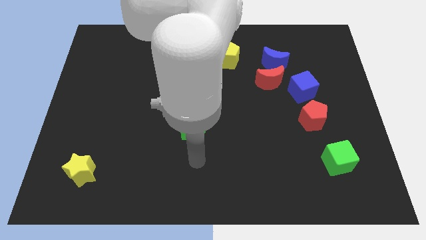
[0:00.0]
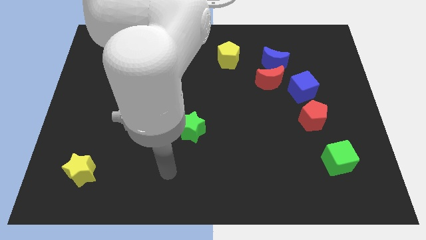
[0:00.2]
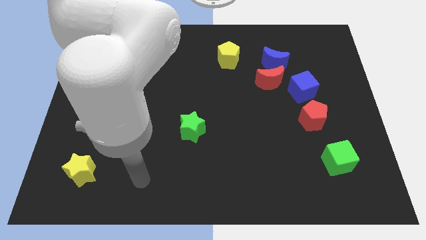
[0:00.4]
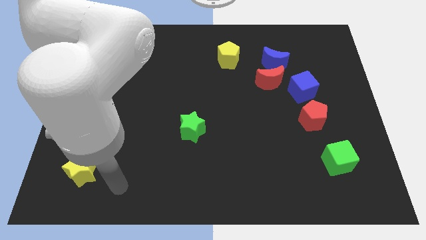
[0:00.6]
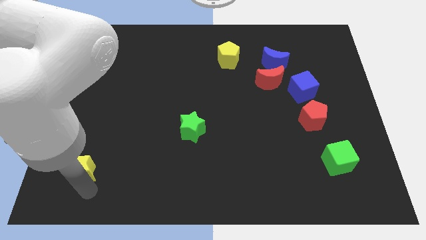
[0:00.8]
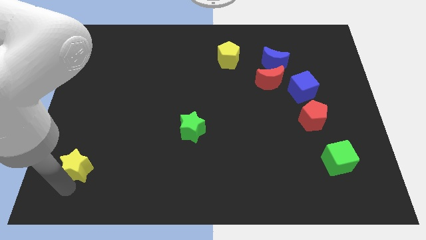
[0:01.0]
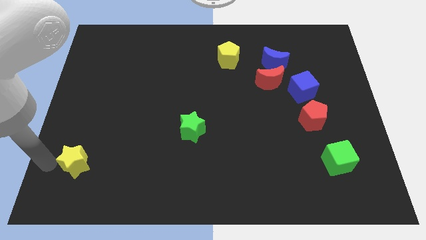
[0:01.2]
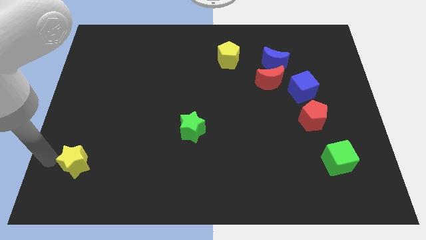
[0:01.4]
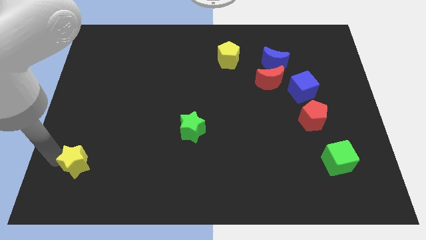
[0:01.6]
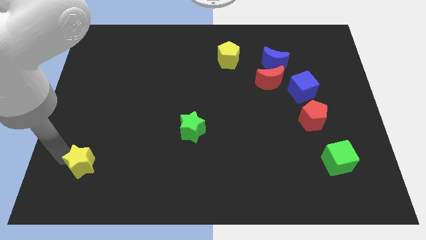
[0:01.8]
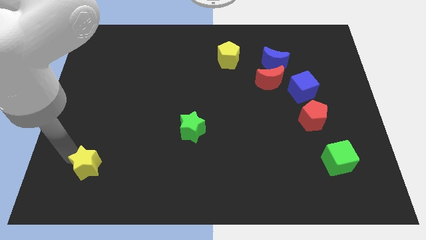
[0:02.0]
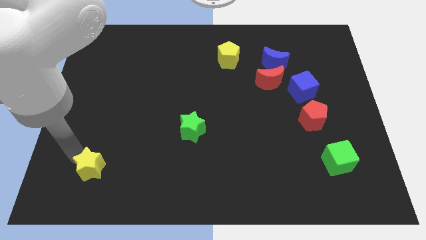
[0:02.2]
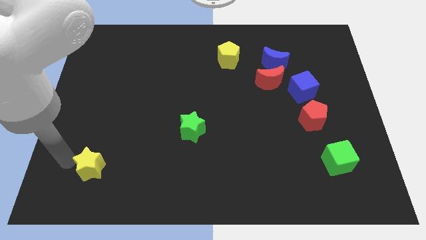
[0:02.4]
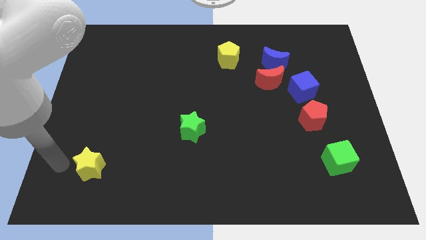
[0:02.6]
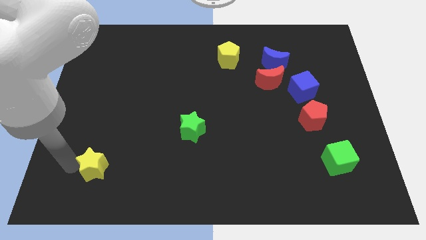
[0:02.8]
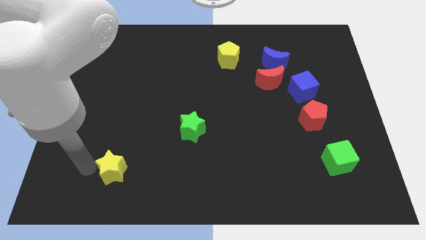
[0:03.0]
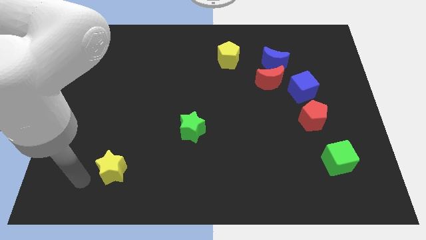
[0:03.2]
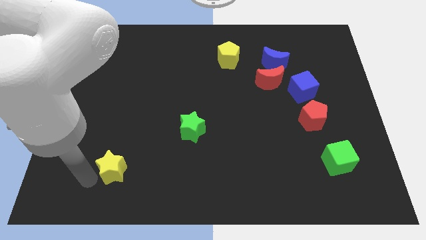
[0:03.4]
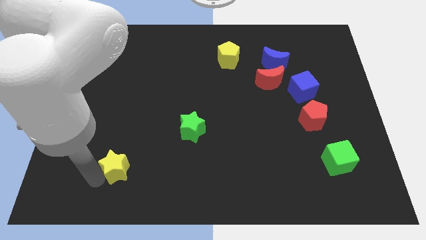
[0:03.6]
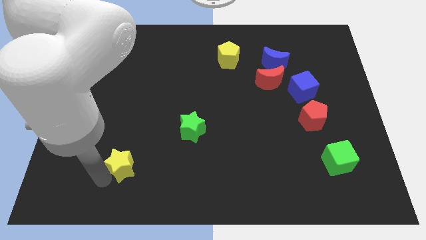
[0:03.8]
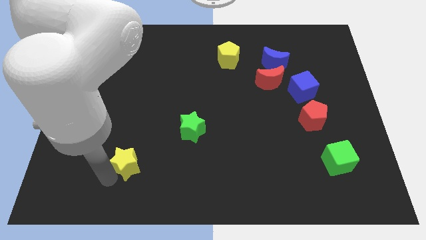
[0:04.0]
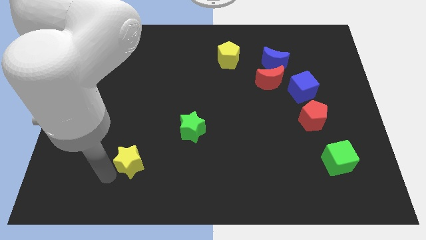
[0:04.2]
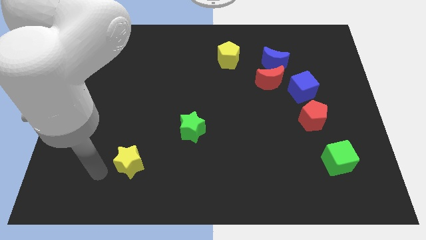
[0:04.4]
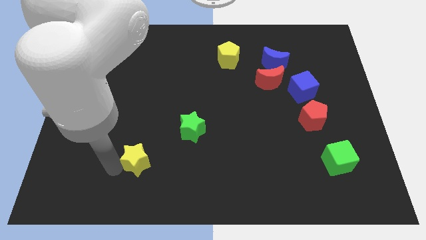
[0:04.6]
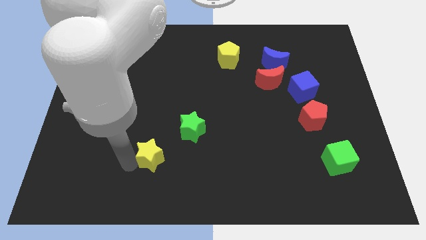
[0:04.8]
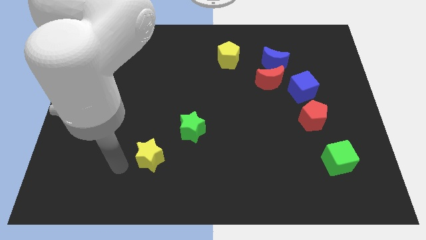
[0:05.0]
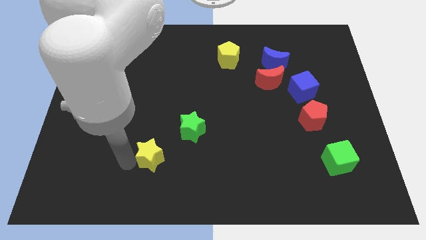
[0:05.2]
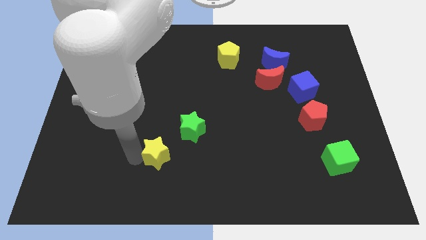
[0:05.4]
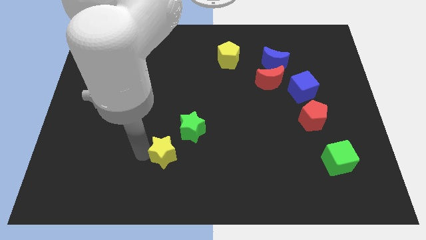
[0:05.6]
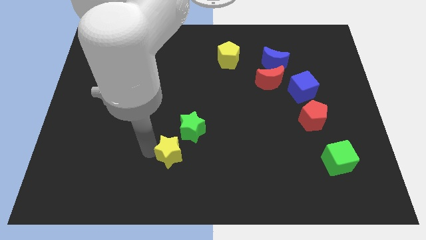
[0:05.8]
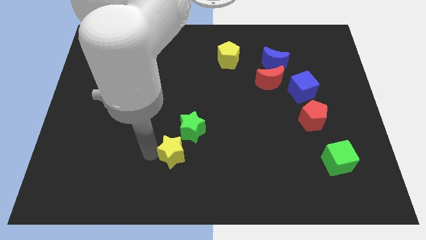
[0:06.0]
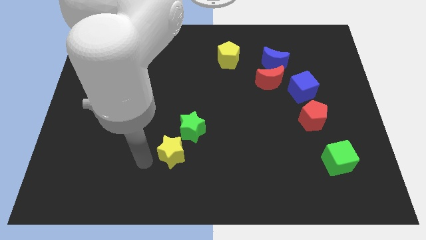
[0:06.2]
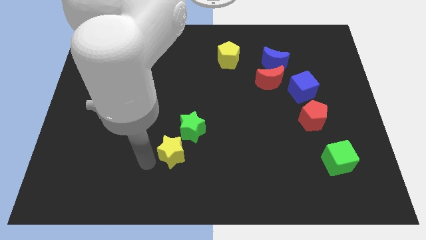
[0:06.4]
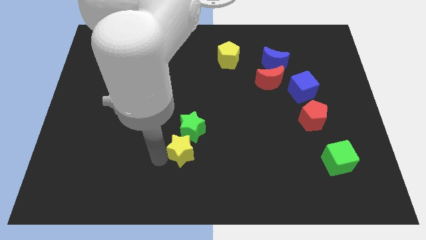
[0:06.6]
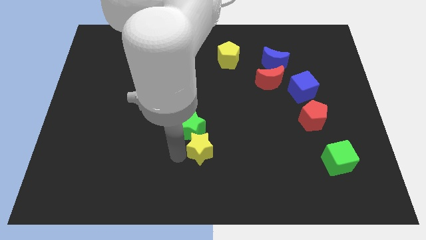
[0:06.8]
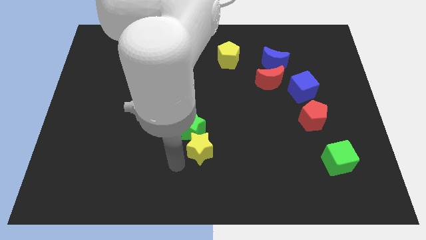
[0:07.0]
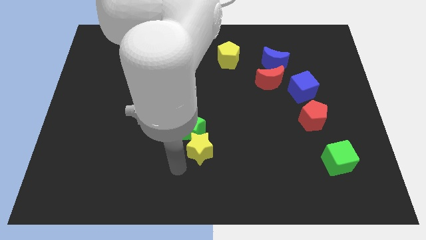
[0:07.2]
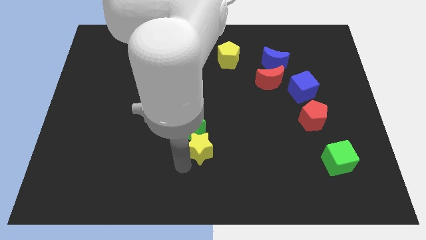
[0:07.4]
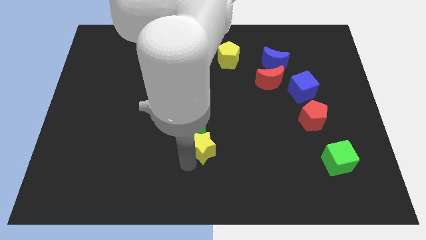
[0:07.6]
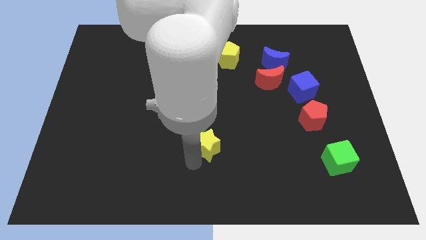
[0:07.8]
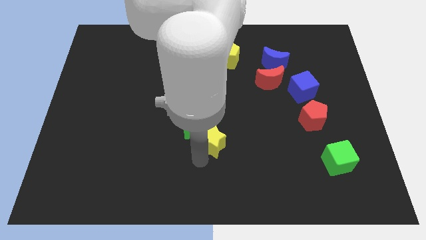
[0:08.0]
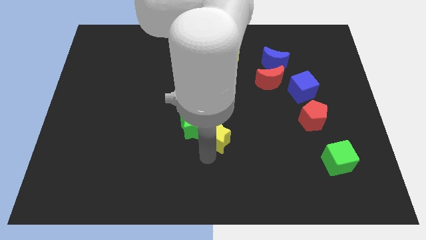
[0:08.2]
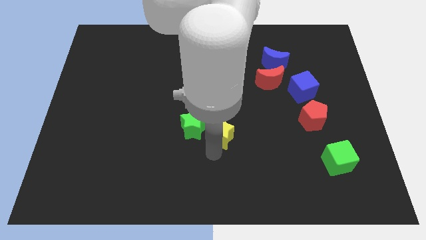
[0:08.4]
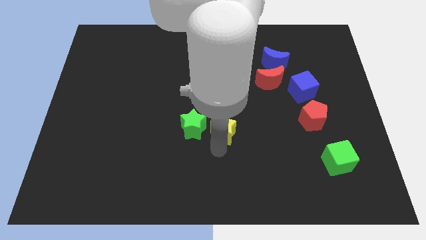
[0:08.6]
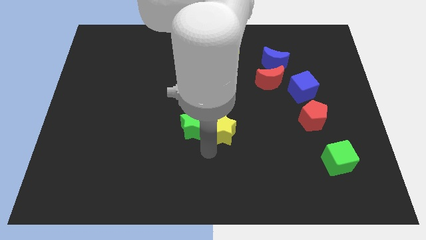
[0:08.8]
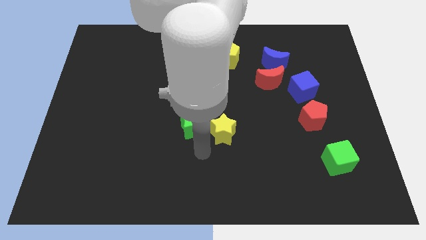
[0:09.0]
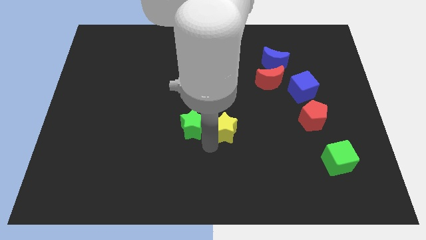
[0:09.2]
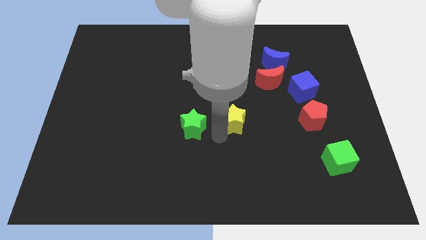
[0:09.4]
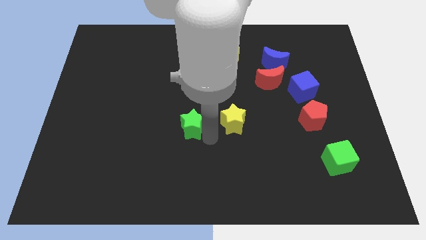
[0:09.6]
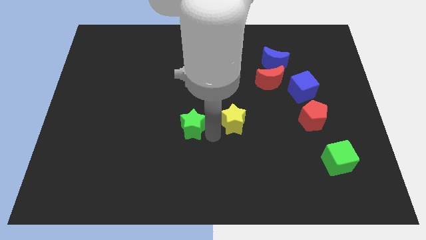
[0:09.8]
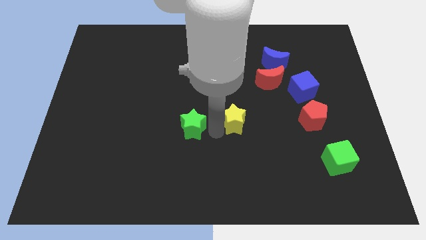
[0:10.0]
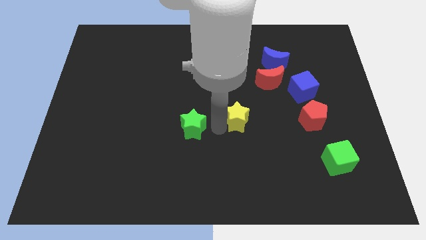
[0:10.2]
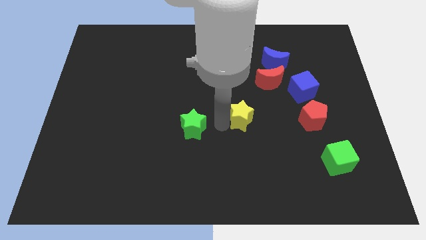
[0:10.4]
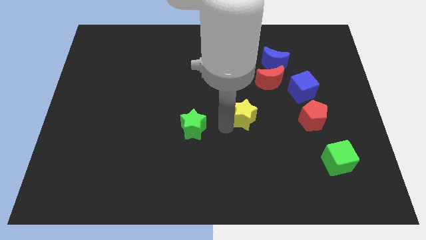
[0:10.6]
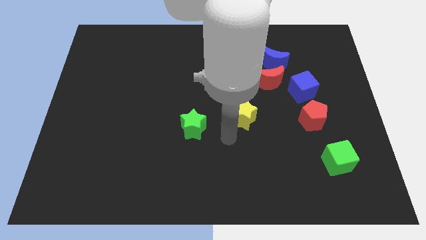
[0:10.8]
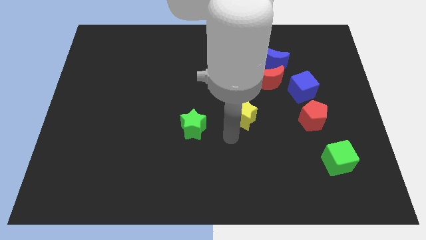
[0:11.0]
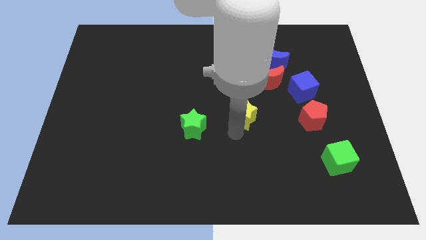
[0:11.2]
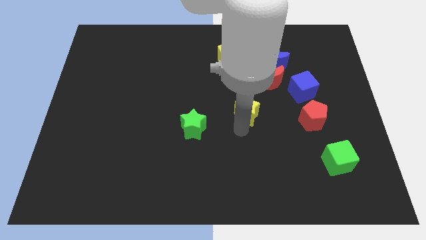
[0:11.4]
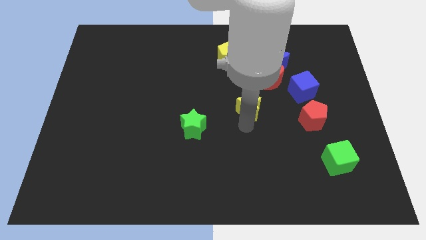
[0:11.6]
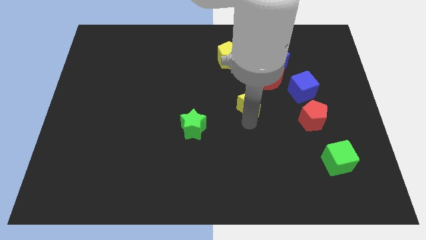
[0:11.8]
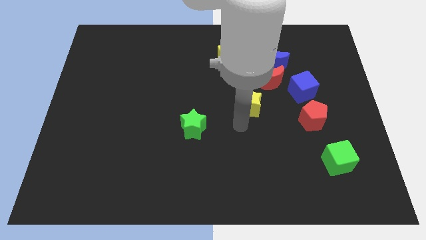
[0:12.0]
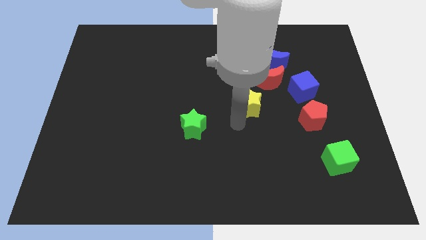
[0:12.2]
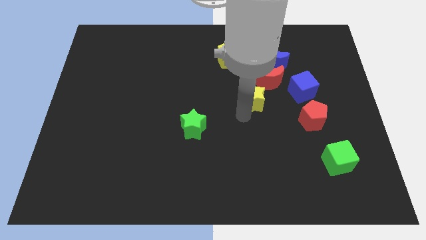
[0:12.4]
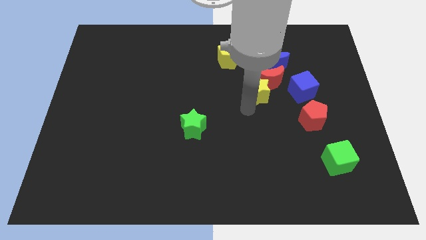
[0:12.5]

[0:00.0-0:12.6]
put the yellow star to the red moon

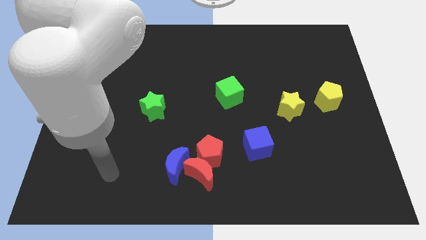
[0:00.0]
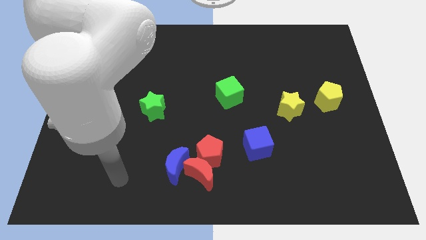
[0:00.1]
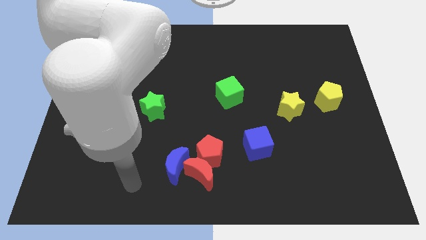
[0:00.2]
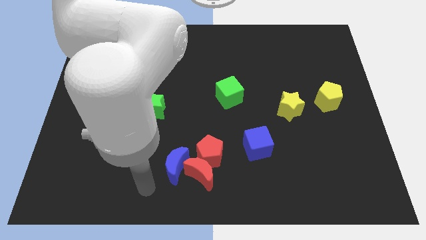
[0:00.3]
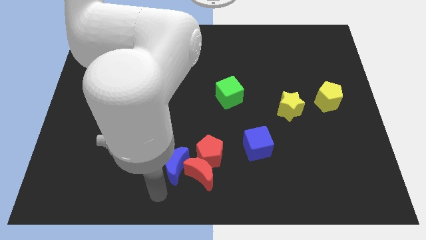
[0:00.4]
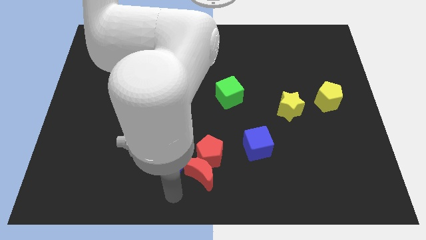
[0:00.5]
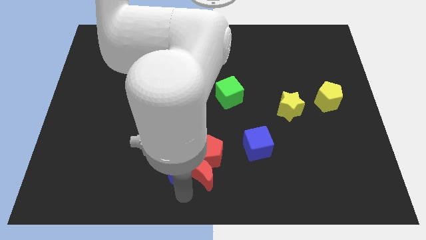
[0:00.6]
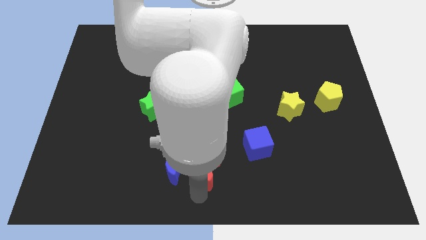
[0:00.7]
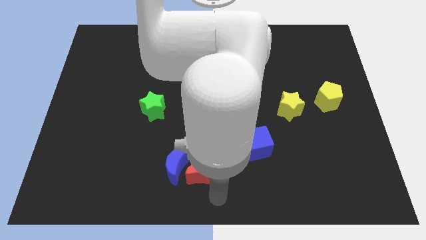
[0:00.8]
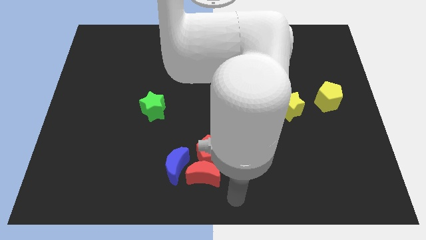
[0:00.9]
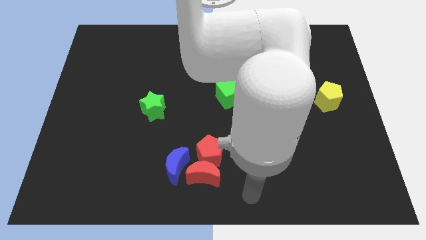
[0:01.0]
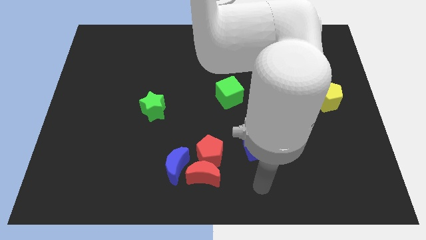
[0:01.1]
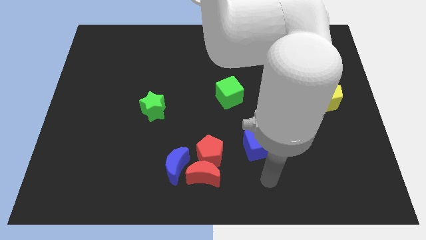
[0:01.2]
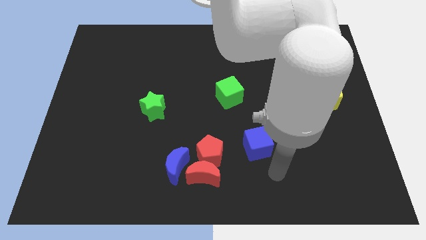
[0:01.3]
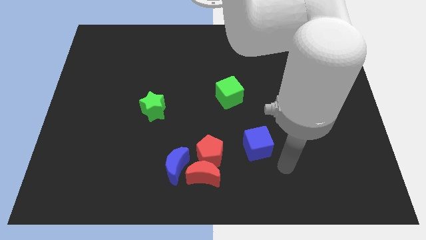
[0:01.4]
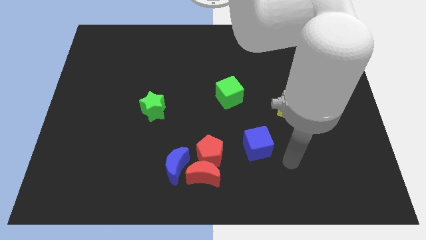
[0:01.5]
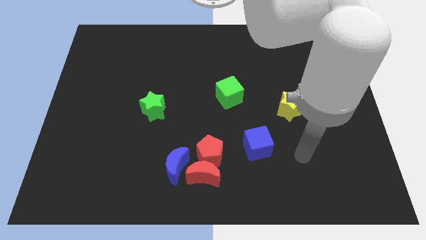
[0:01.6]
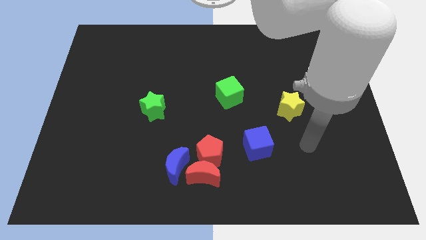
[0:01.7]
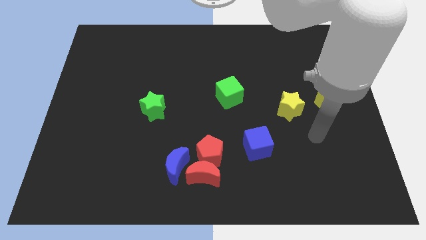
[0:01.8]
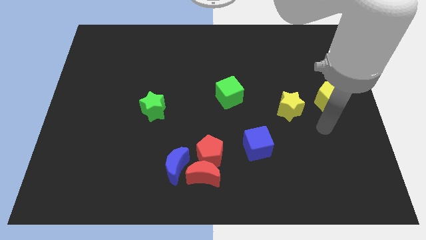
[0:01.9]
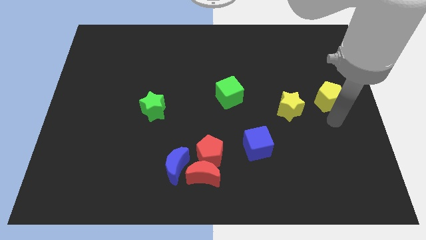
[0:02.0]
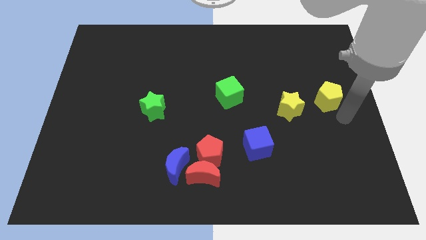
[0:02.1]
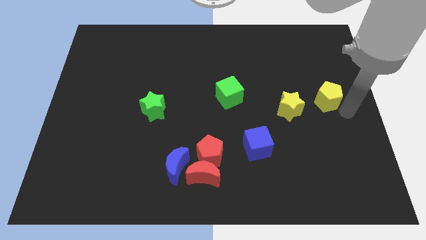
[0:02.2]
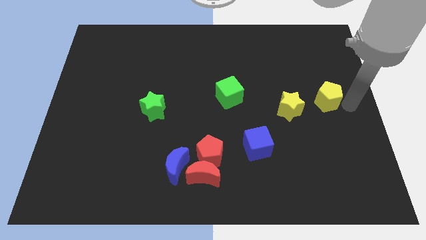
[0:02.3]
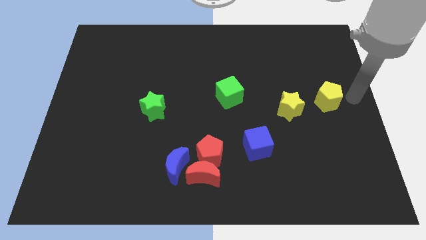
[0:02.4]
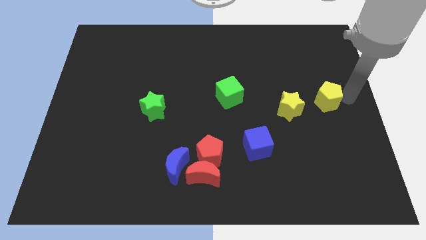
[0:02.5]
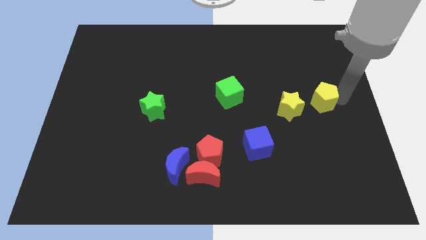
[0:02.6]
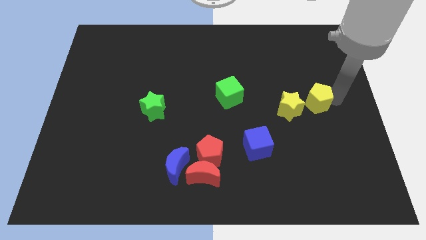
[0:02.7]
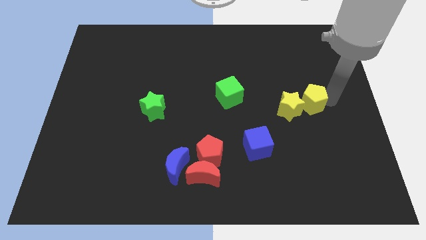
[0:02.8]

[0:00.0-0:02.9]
move the yellow pentagon towards the yellow star
